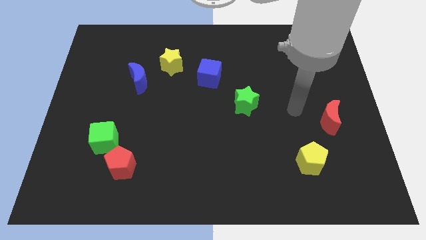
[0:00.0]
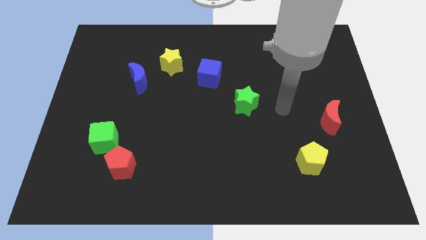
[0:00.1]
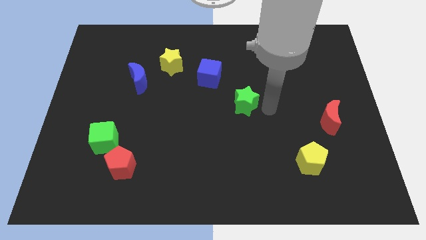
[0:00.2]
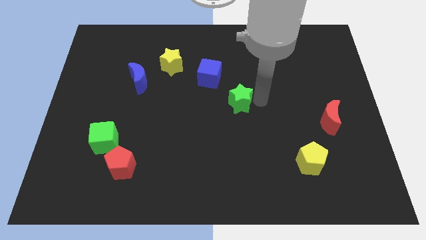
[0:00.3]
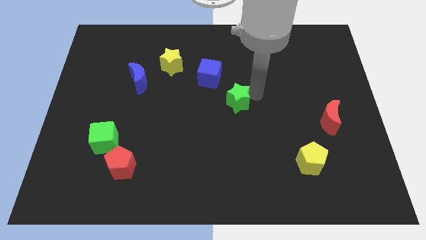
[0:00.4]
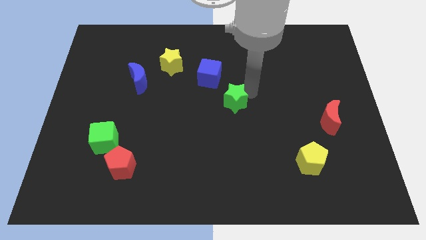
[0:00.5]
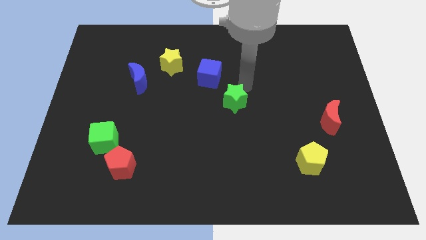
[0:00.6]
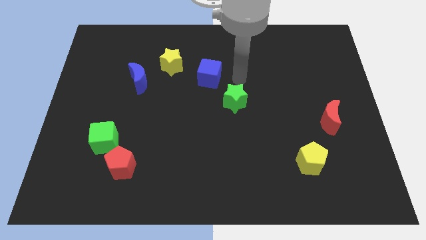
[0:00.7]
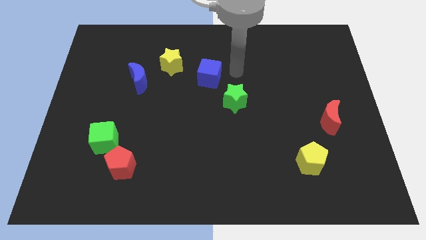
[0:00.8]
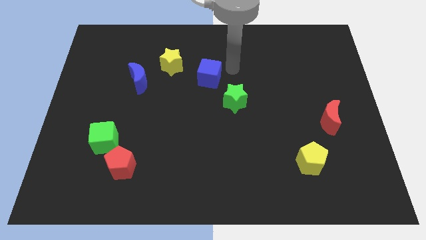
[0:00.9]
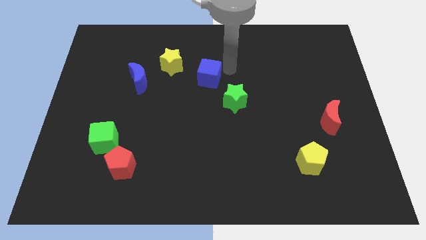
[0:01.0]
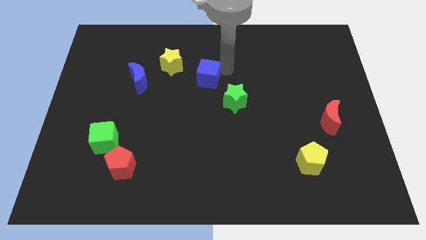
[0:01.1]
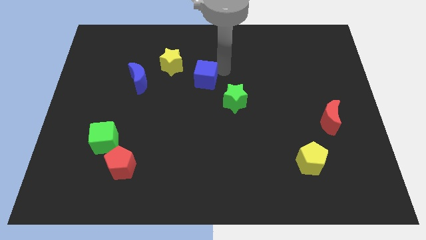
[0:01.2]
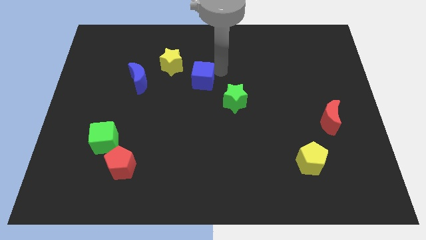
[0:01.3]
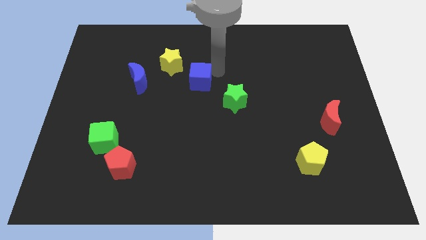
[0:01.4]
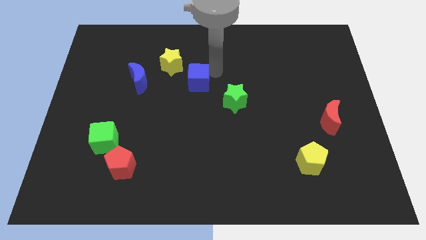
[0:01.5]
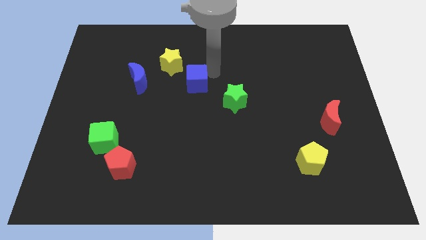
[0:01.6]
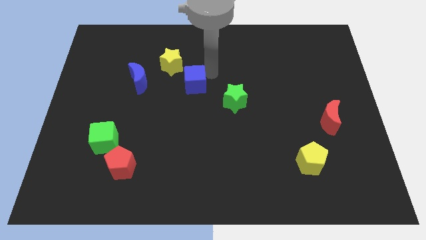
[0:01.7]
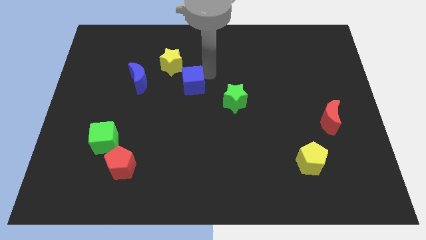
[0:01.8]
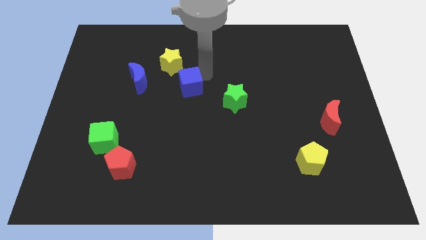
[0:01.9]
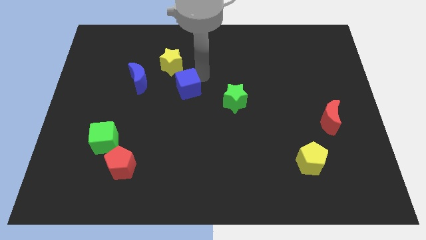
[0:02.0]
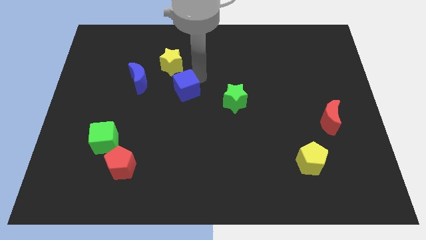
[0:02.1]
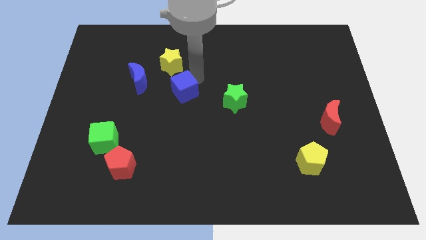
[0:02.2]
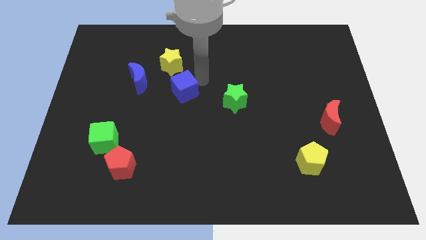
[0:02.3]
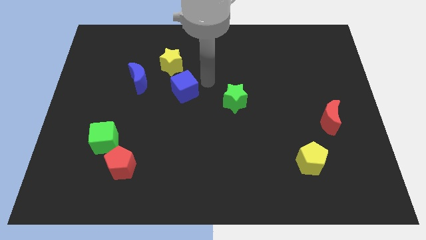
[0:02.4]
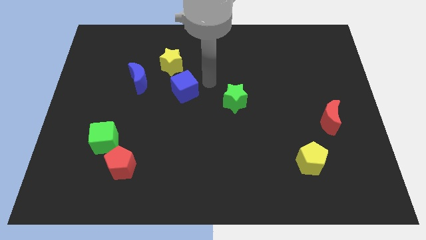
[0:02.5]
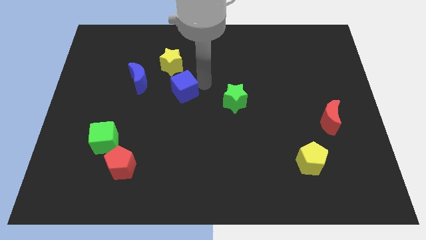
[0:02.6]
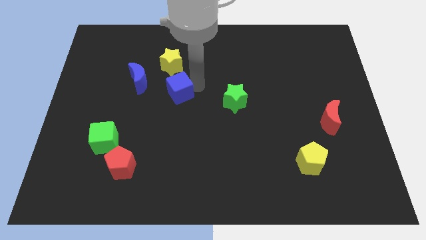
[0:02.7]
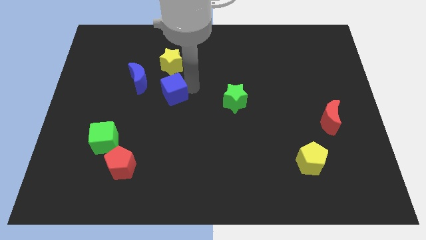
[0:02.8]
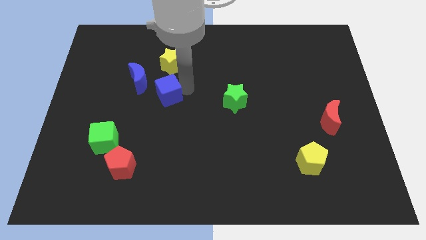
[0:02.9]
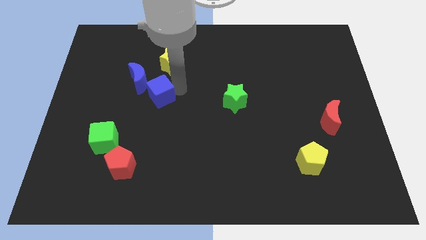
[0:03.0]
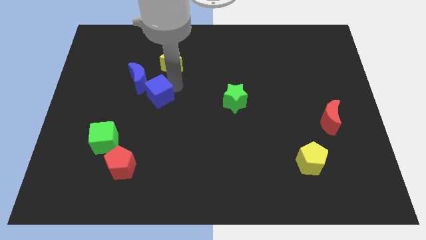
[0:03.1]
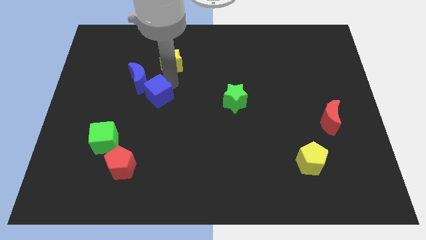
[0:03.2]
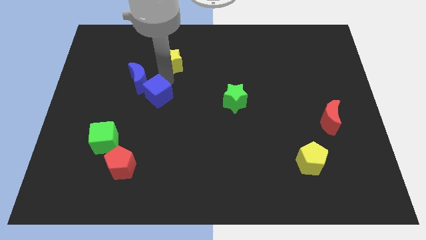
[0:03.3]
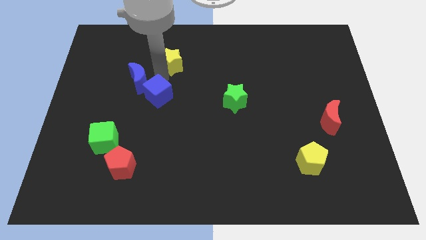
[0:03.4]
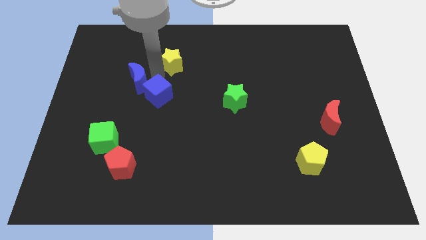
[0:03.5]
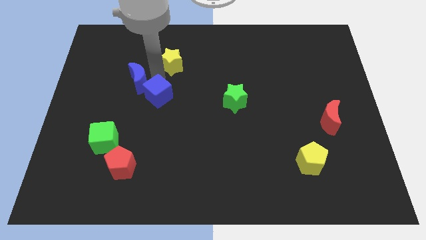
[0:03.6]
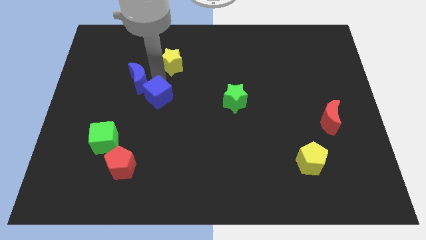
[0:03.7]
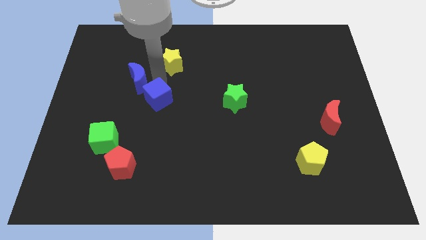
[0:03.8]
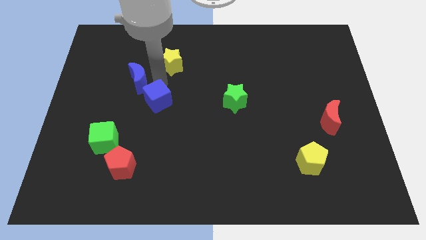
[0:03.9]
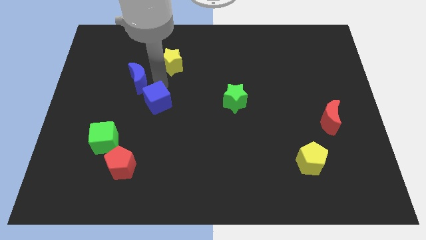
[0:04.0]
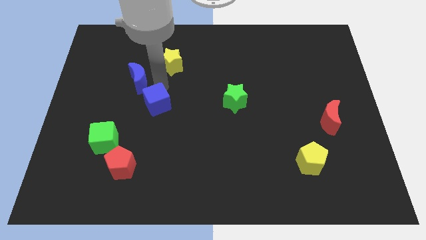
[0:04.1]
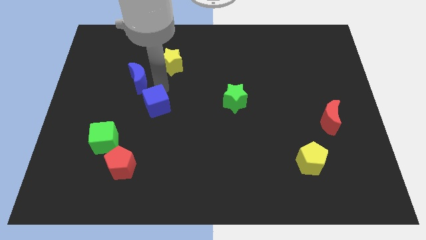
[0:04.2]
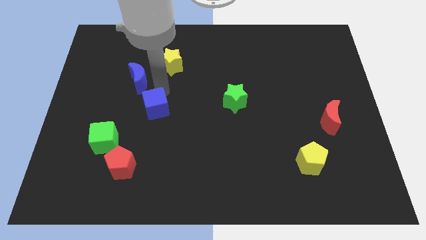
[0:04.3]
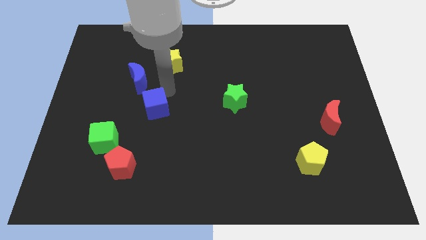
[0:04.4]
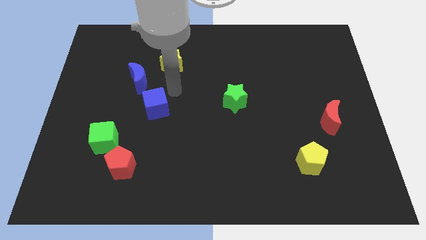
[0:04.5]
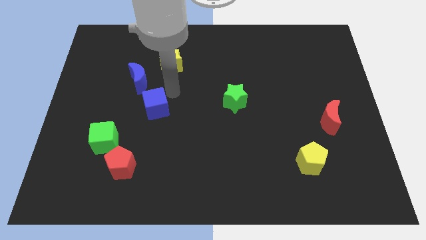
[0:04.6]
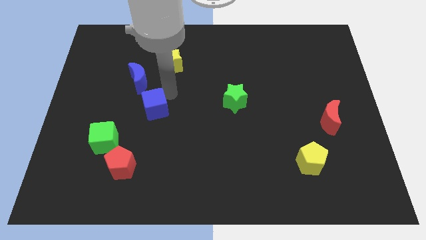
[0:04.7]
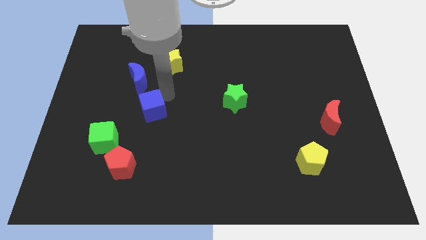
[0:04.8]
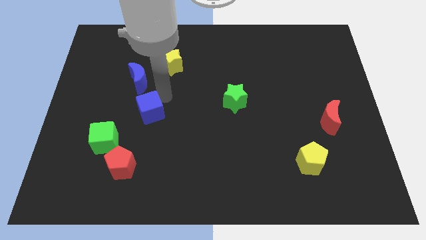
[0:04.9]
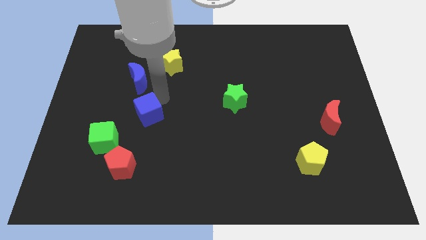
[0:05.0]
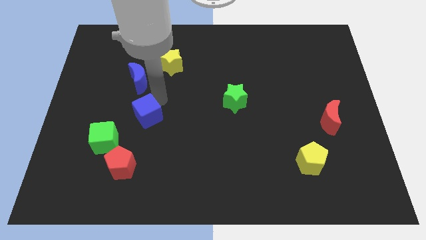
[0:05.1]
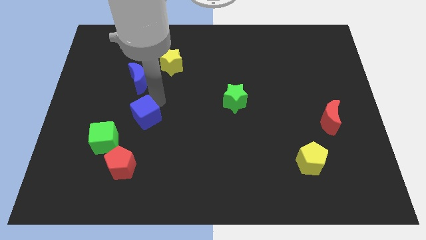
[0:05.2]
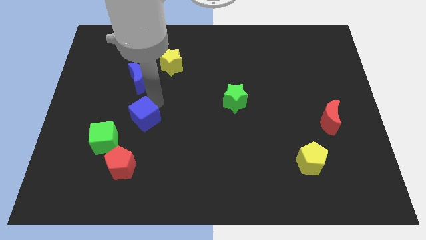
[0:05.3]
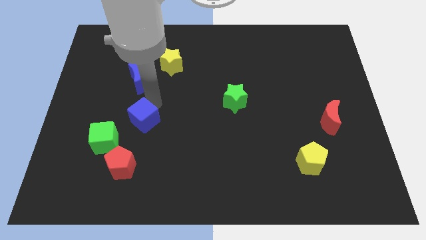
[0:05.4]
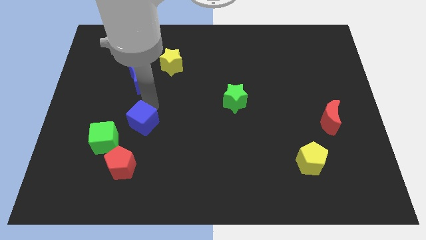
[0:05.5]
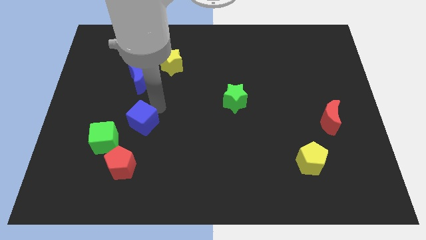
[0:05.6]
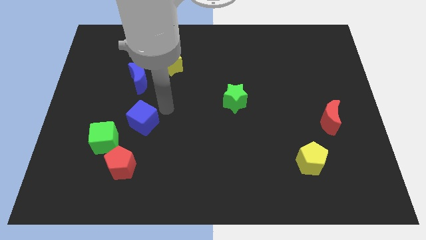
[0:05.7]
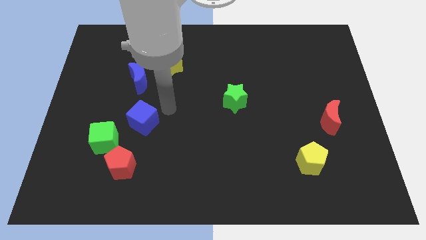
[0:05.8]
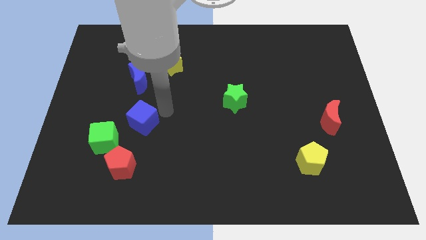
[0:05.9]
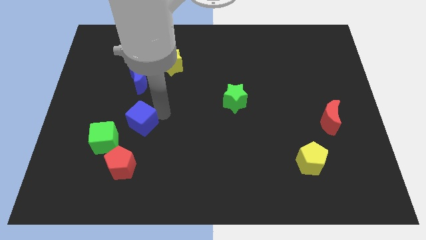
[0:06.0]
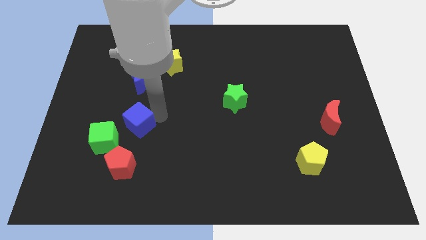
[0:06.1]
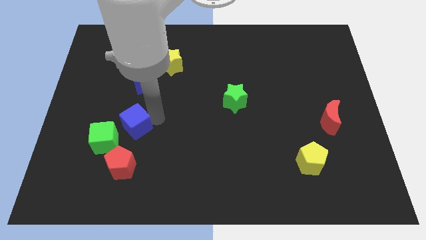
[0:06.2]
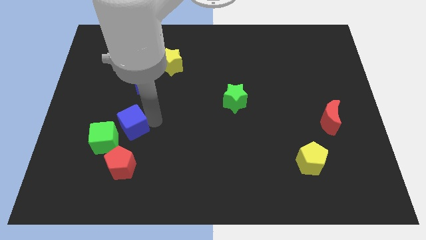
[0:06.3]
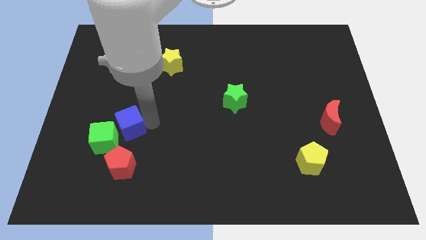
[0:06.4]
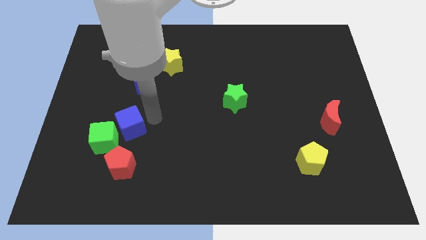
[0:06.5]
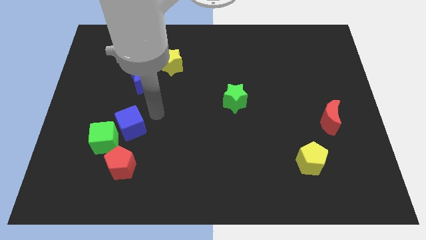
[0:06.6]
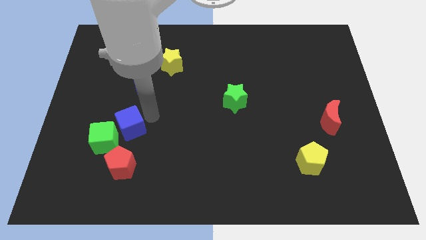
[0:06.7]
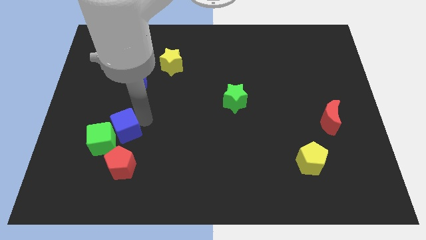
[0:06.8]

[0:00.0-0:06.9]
move the blue cube towards the green cube
